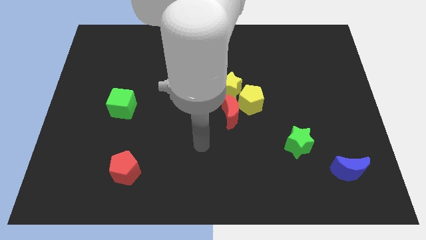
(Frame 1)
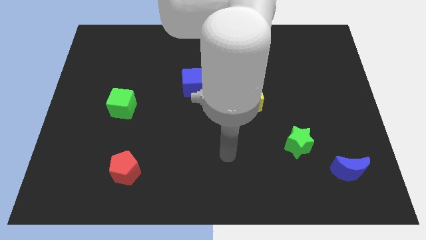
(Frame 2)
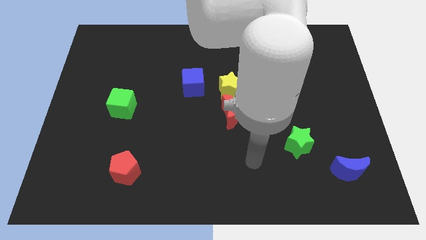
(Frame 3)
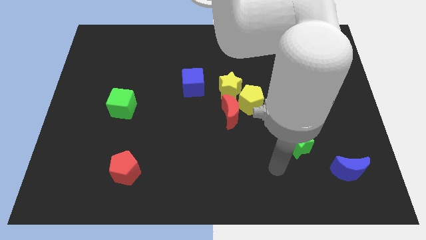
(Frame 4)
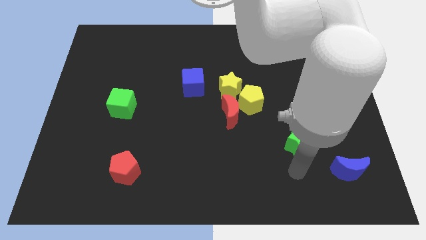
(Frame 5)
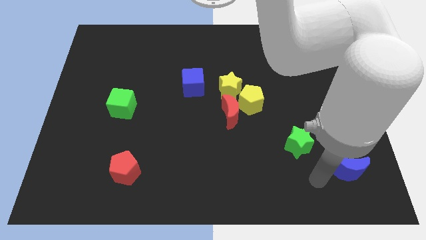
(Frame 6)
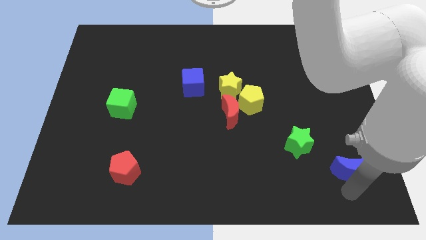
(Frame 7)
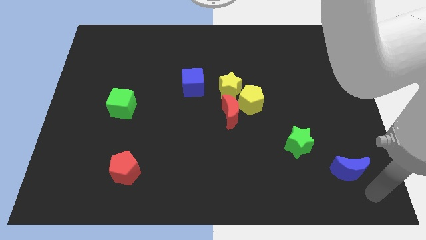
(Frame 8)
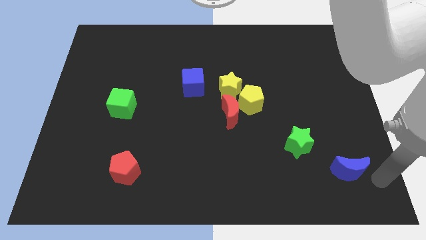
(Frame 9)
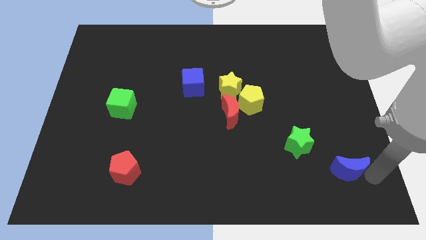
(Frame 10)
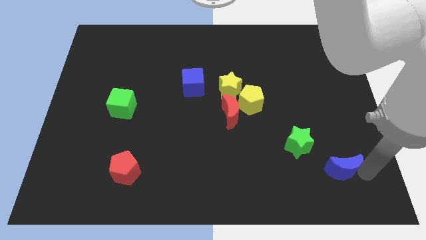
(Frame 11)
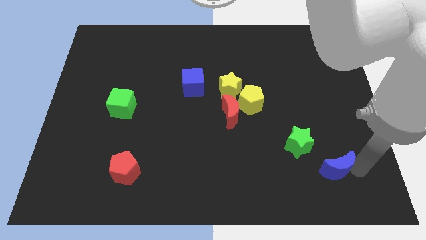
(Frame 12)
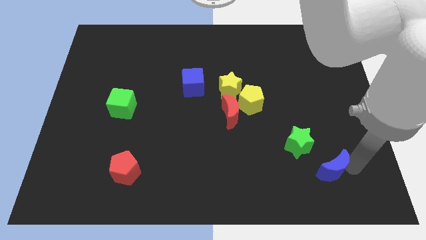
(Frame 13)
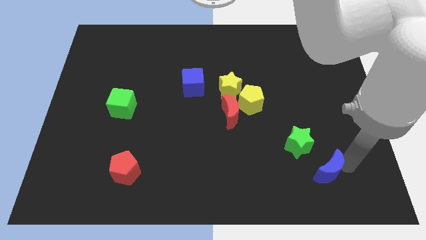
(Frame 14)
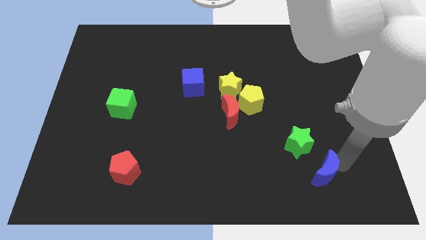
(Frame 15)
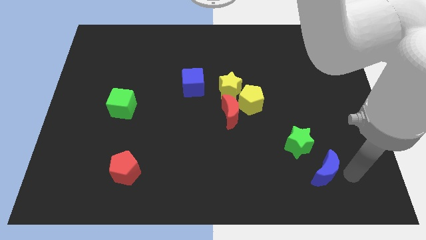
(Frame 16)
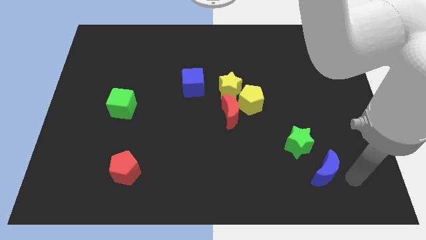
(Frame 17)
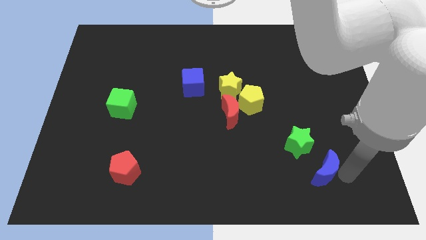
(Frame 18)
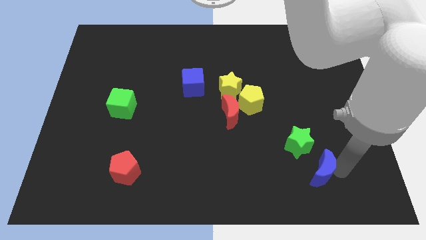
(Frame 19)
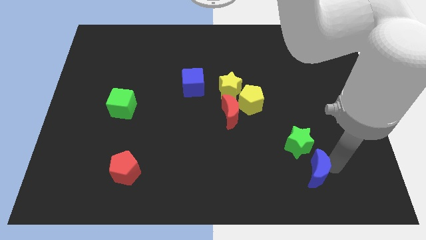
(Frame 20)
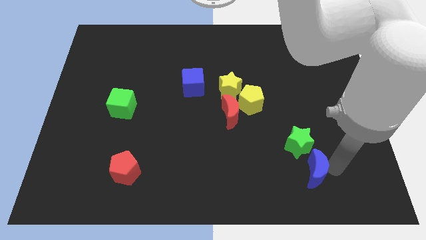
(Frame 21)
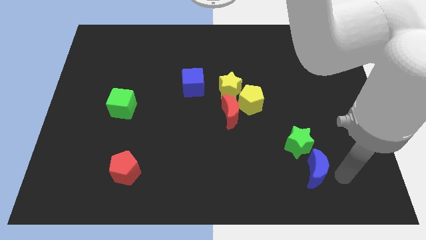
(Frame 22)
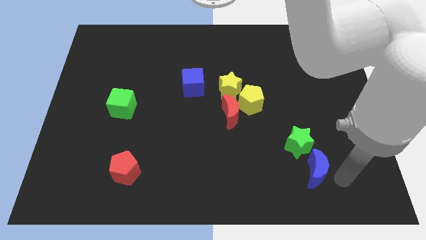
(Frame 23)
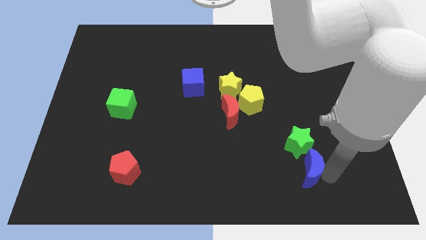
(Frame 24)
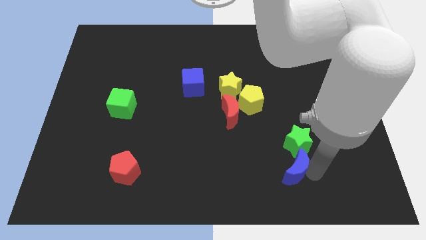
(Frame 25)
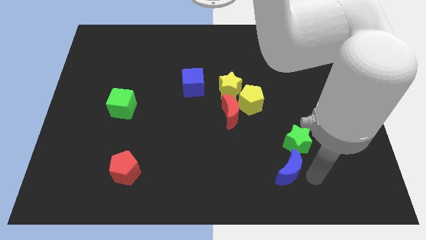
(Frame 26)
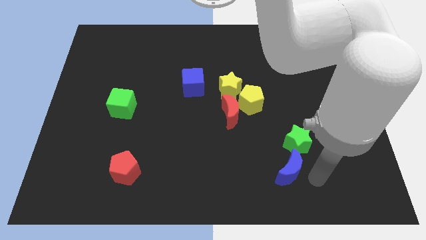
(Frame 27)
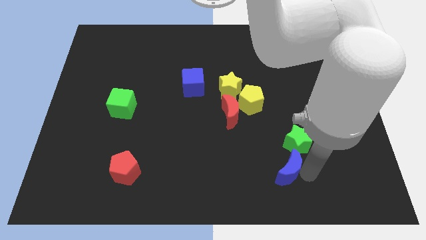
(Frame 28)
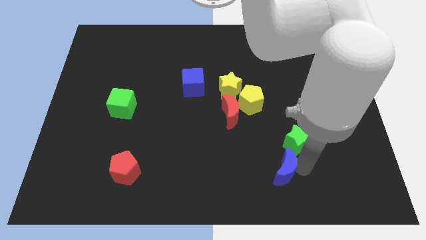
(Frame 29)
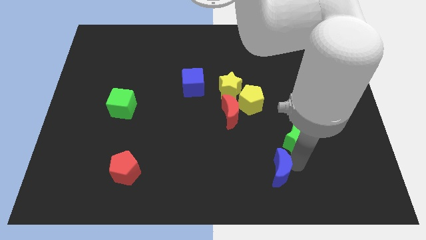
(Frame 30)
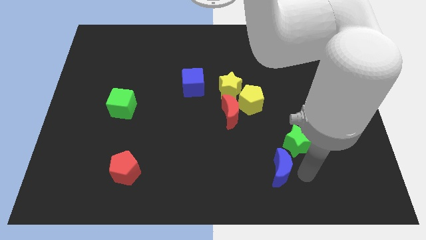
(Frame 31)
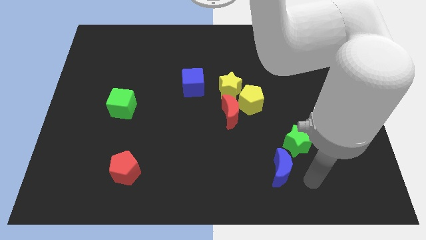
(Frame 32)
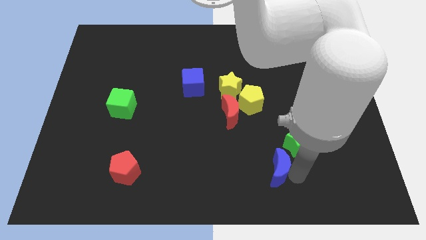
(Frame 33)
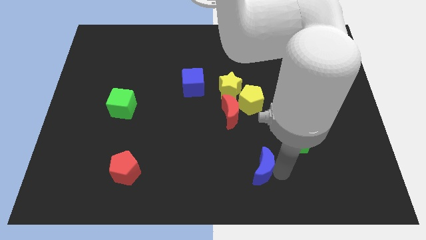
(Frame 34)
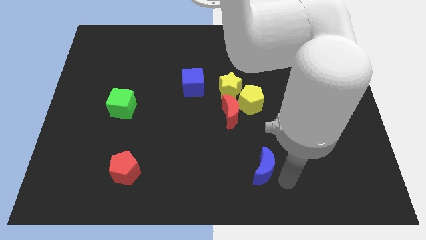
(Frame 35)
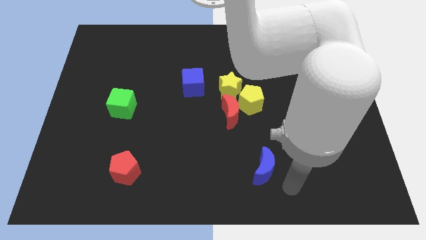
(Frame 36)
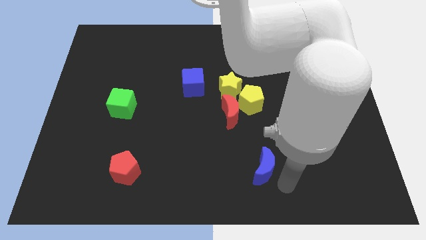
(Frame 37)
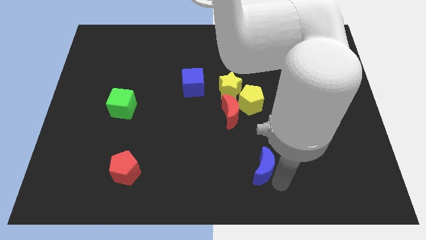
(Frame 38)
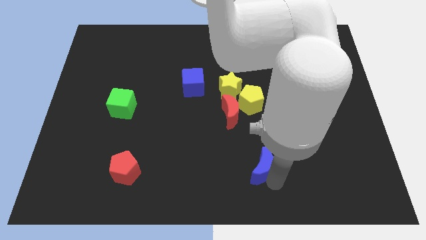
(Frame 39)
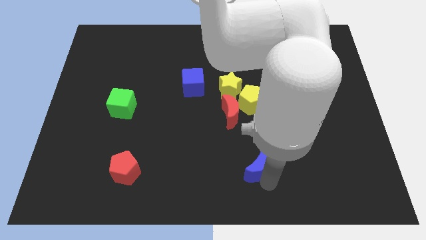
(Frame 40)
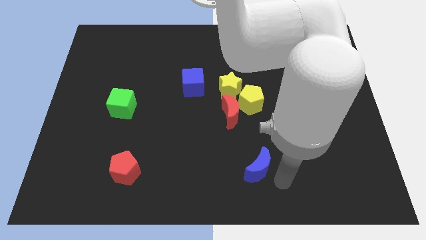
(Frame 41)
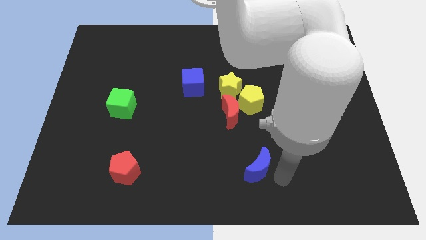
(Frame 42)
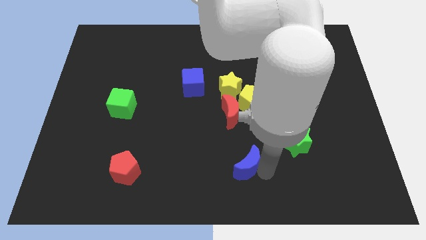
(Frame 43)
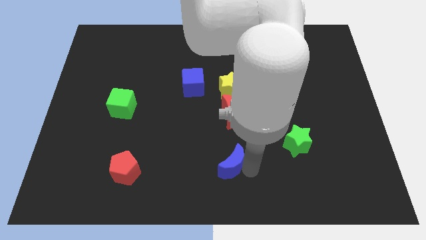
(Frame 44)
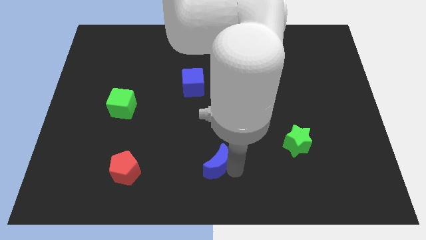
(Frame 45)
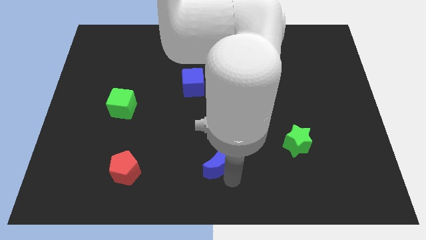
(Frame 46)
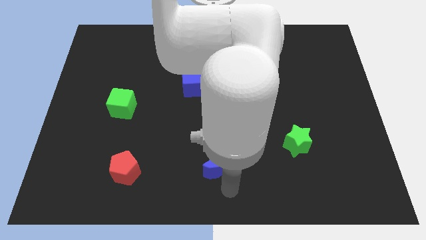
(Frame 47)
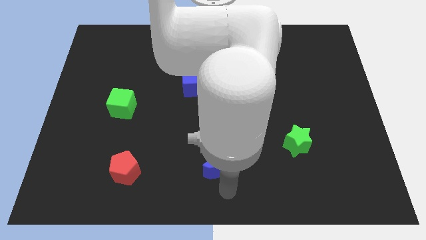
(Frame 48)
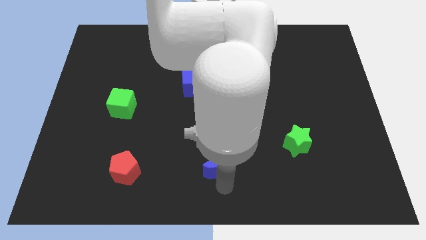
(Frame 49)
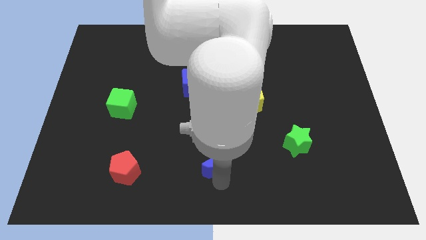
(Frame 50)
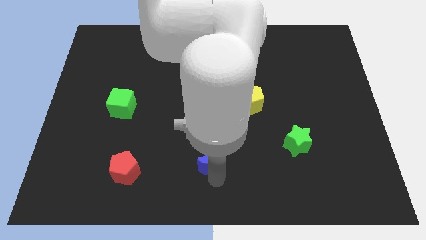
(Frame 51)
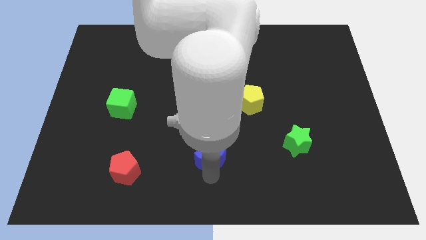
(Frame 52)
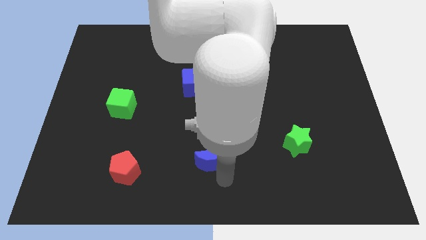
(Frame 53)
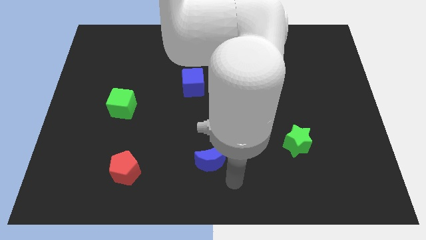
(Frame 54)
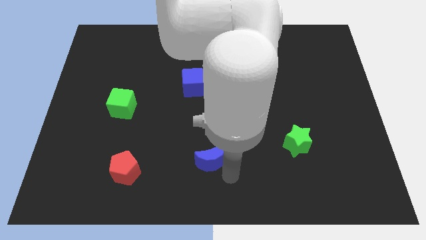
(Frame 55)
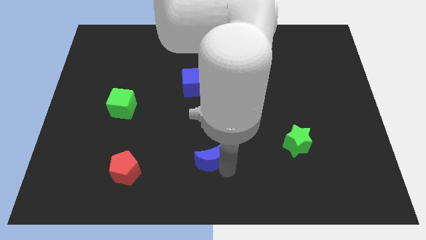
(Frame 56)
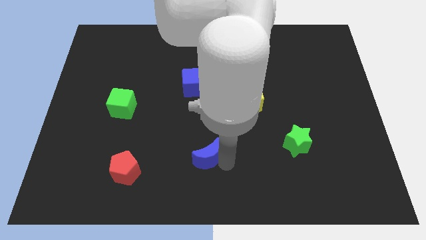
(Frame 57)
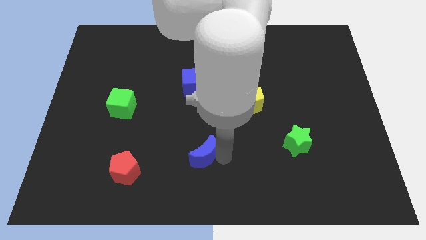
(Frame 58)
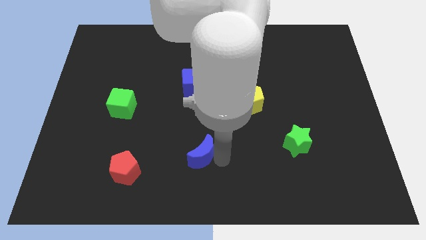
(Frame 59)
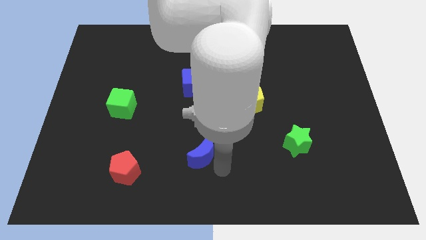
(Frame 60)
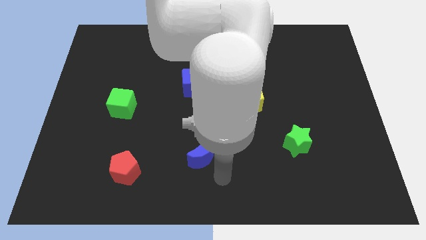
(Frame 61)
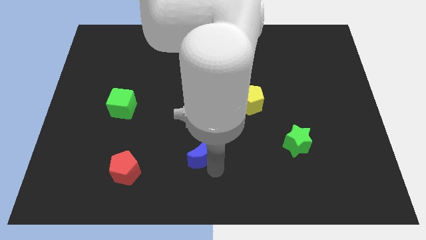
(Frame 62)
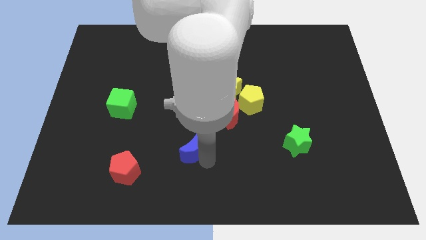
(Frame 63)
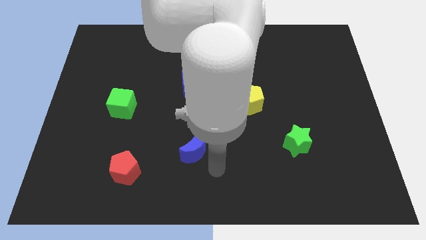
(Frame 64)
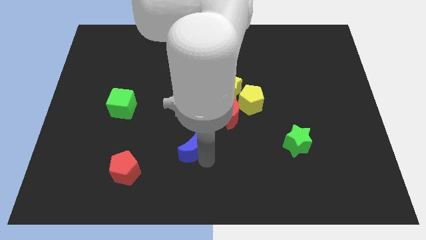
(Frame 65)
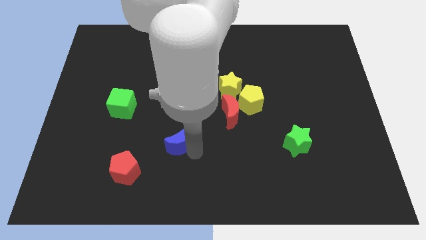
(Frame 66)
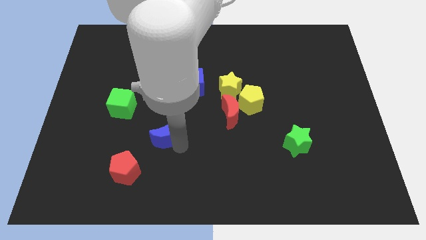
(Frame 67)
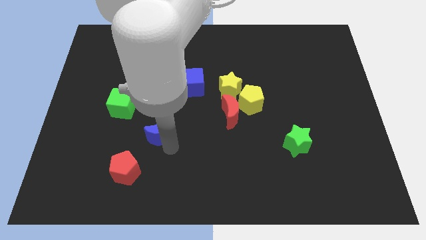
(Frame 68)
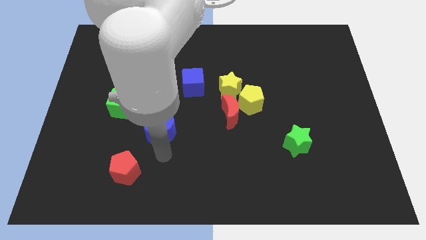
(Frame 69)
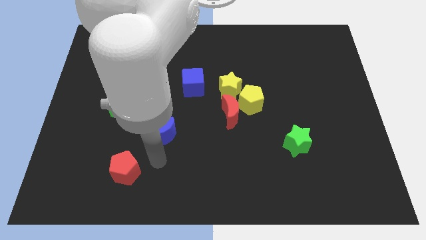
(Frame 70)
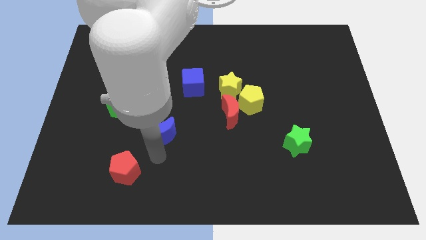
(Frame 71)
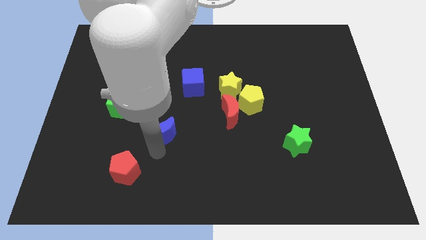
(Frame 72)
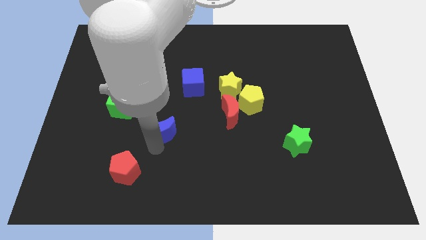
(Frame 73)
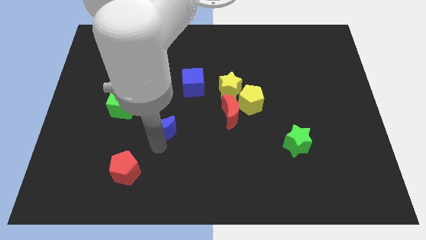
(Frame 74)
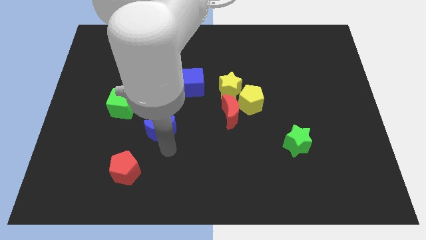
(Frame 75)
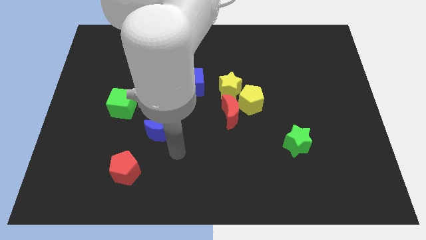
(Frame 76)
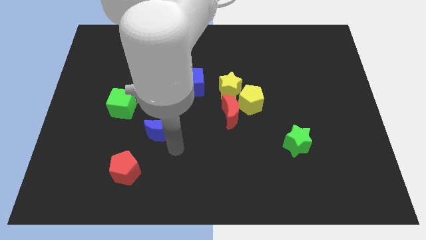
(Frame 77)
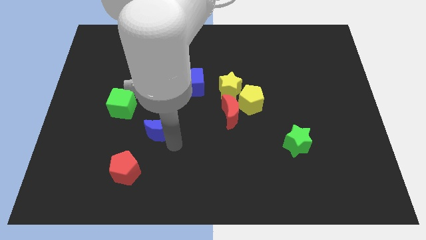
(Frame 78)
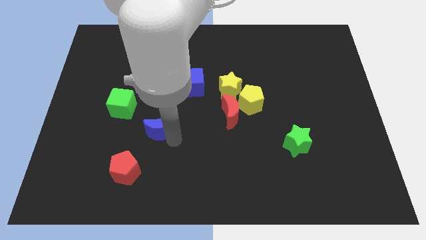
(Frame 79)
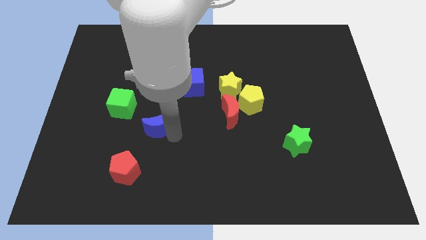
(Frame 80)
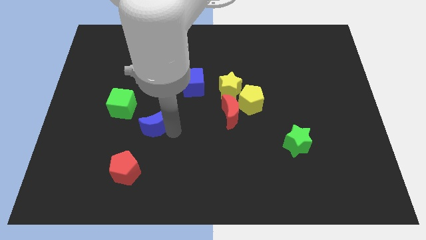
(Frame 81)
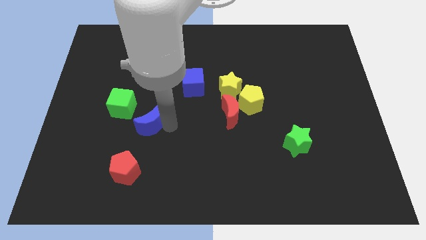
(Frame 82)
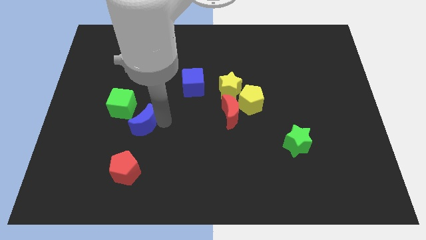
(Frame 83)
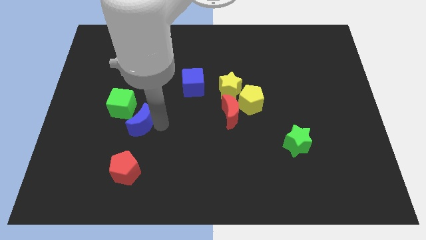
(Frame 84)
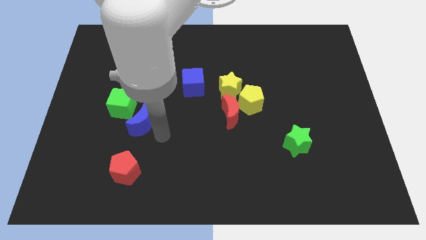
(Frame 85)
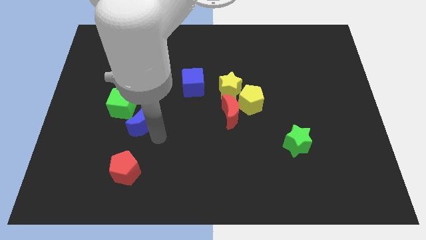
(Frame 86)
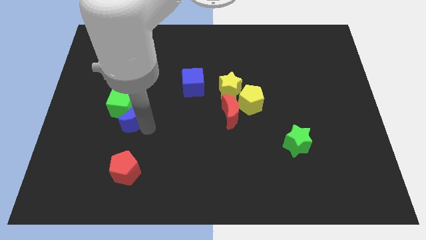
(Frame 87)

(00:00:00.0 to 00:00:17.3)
put the blue moon to the green cube
